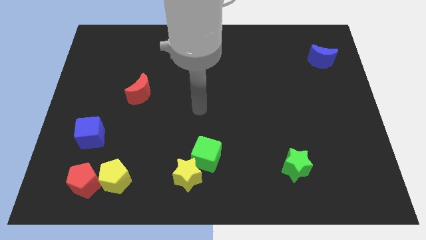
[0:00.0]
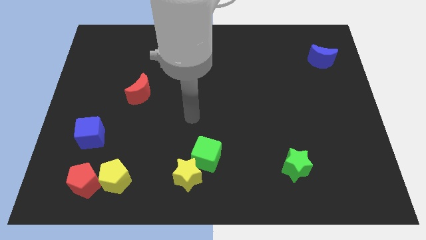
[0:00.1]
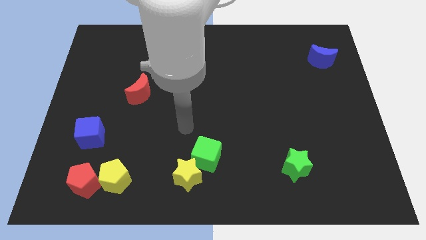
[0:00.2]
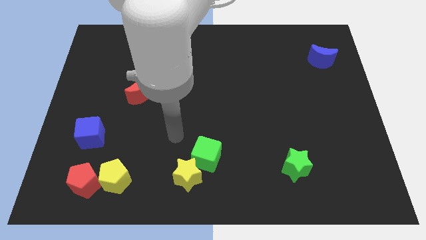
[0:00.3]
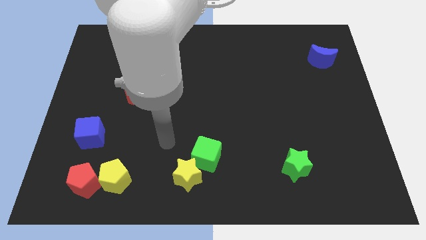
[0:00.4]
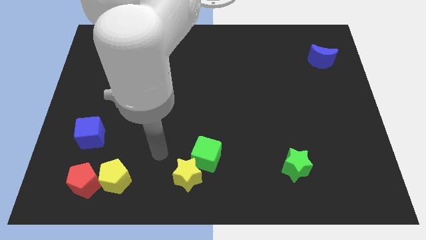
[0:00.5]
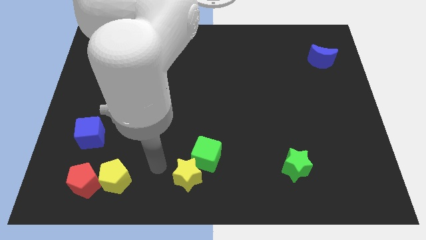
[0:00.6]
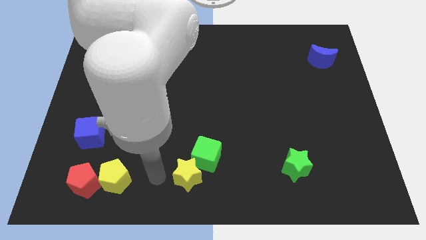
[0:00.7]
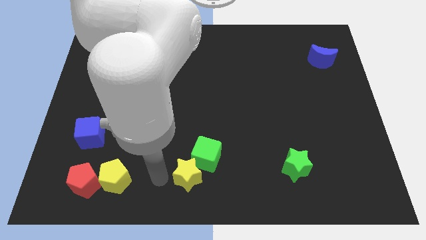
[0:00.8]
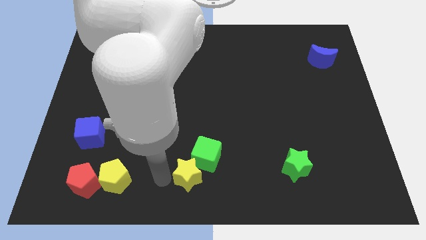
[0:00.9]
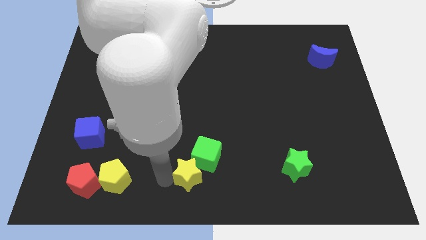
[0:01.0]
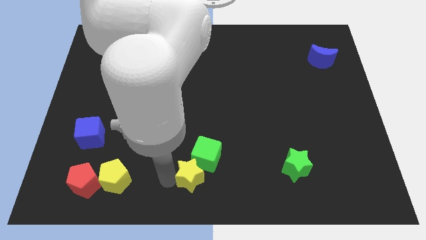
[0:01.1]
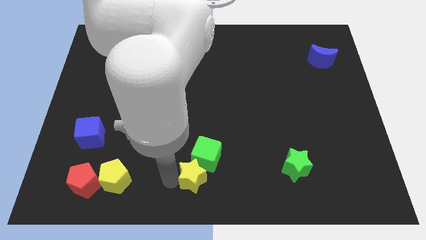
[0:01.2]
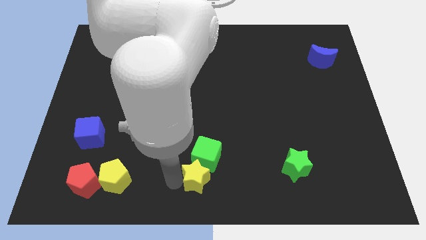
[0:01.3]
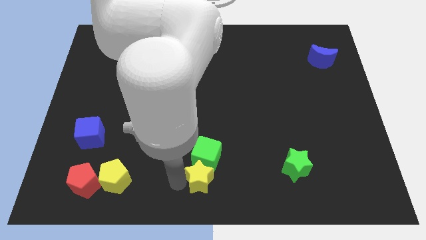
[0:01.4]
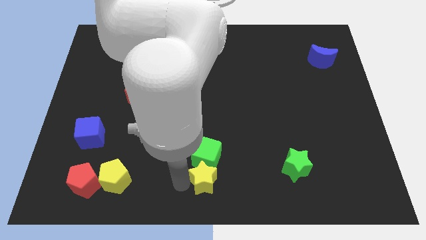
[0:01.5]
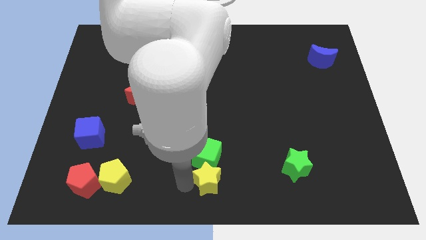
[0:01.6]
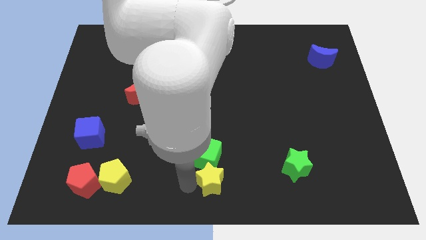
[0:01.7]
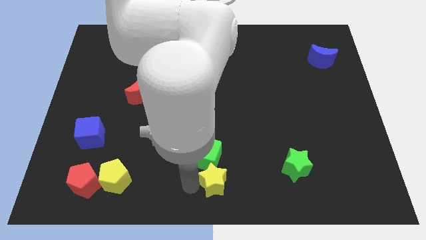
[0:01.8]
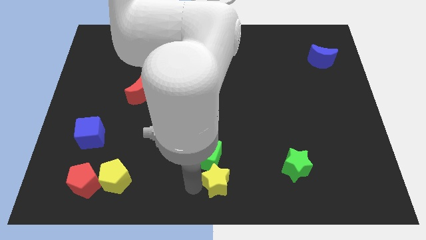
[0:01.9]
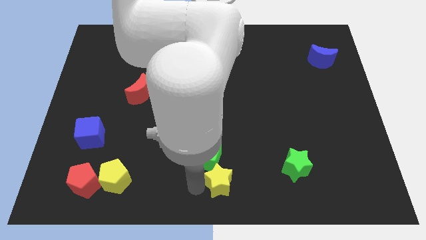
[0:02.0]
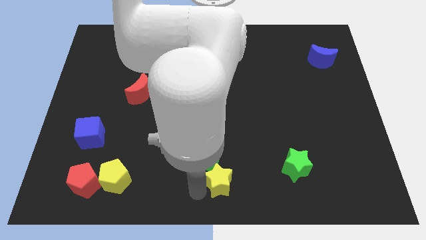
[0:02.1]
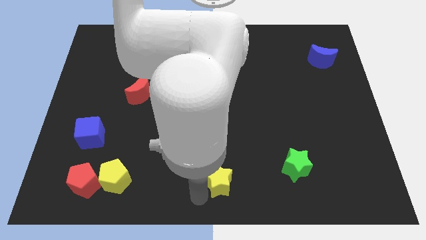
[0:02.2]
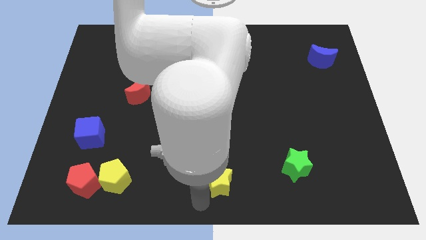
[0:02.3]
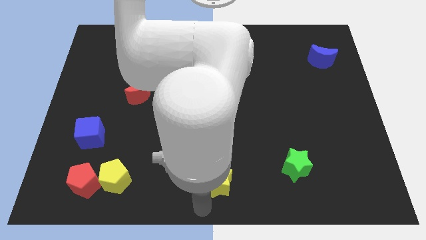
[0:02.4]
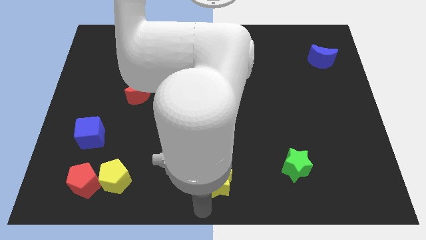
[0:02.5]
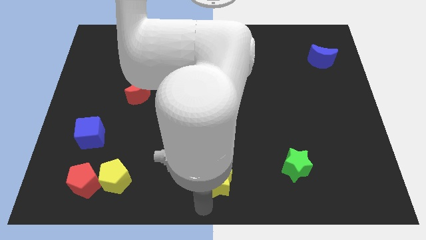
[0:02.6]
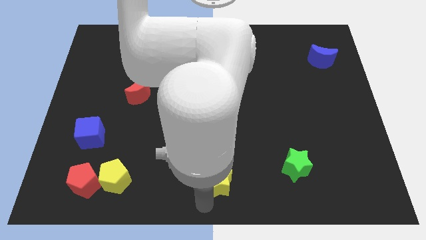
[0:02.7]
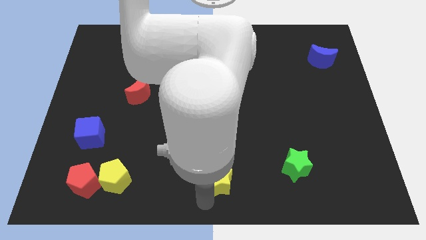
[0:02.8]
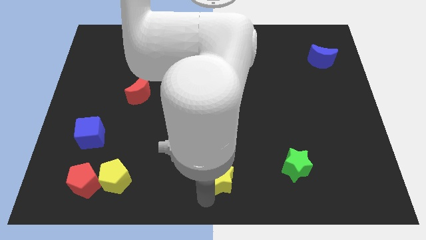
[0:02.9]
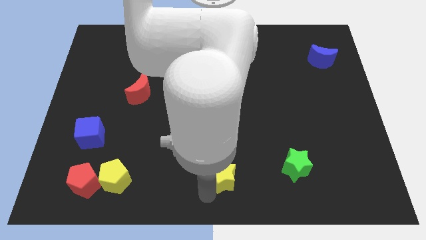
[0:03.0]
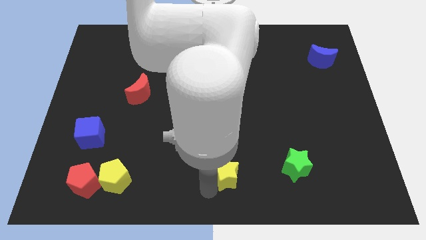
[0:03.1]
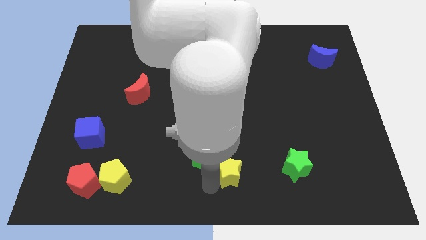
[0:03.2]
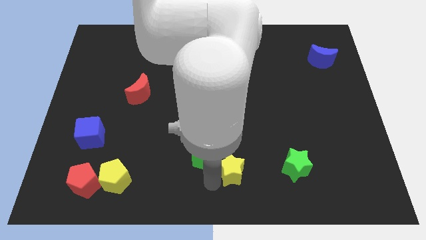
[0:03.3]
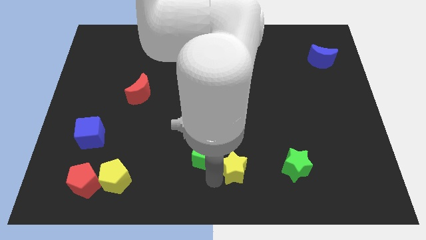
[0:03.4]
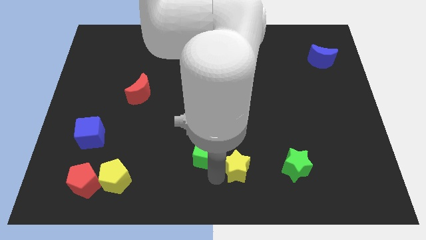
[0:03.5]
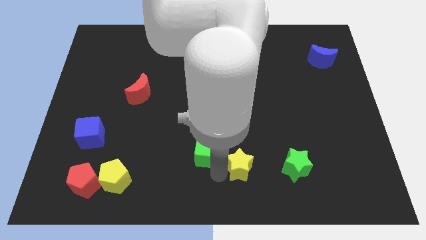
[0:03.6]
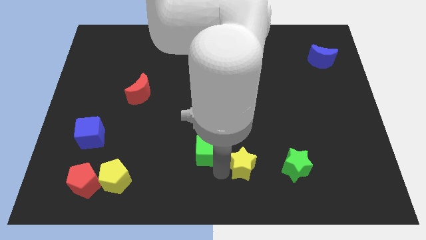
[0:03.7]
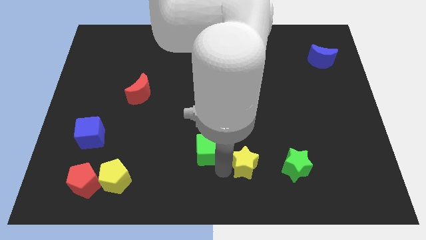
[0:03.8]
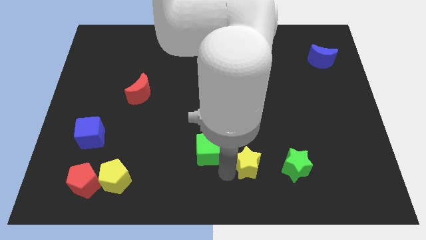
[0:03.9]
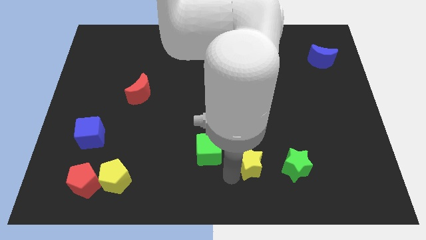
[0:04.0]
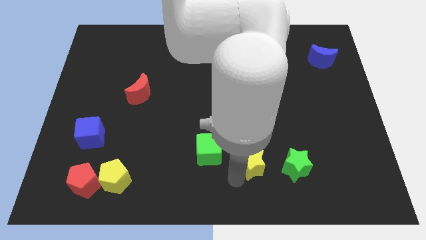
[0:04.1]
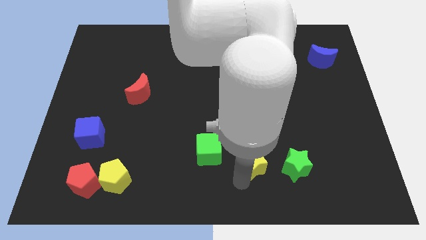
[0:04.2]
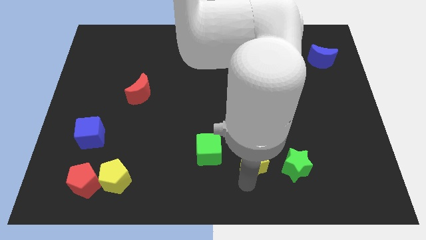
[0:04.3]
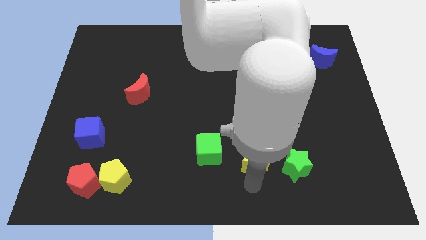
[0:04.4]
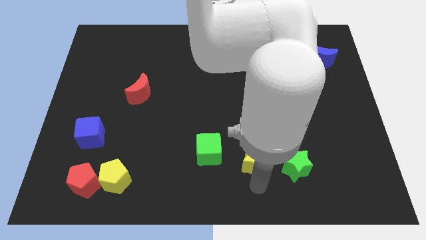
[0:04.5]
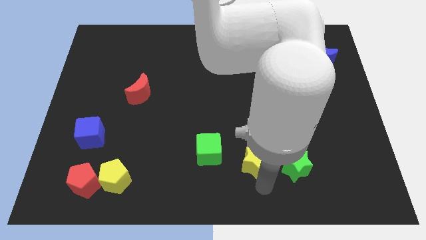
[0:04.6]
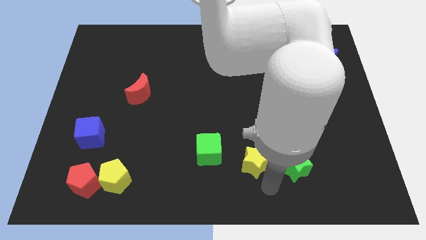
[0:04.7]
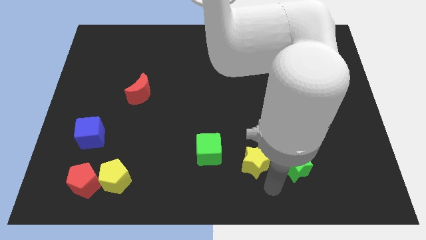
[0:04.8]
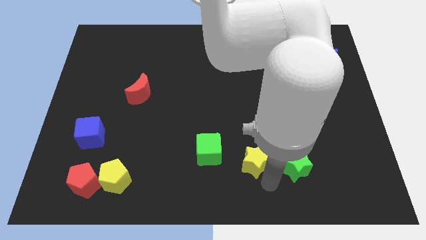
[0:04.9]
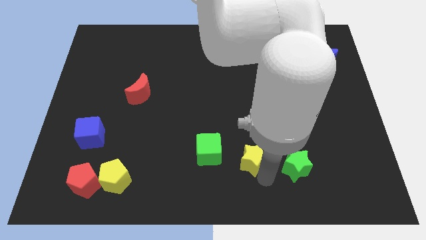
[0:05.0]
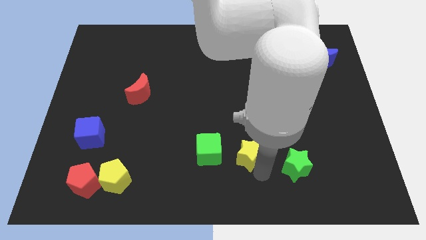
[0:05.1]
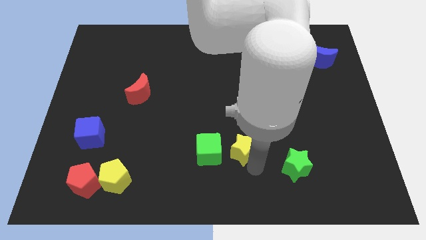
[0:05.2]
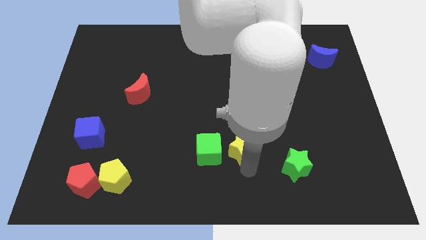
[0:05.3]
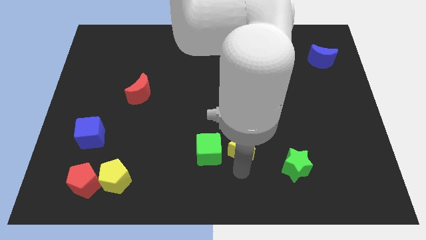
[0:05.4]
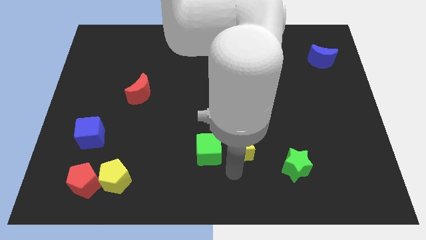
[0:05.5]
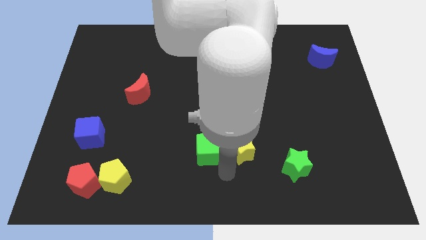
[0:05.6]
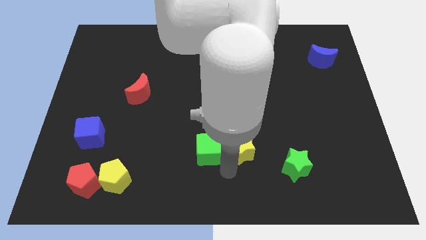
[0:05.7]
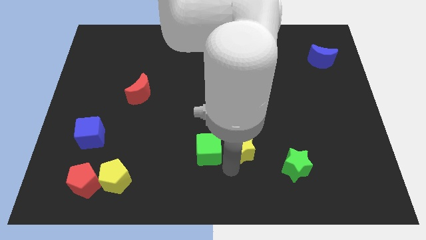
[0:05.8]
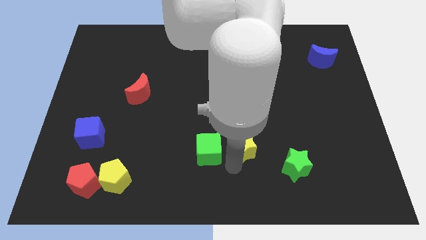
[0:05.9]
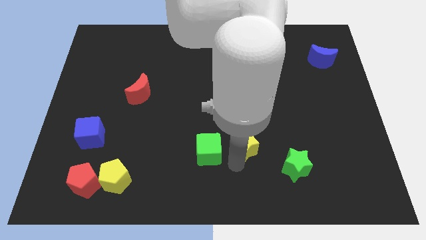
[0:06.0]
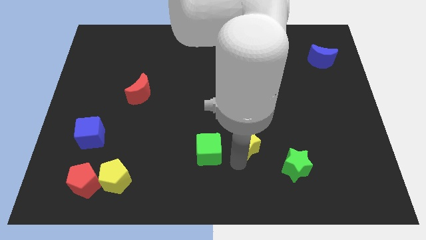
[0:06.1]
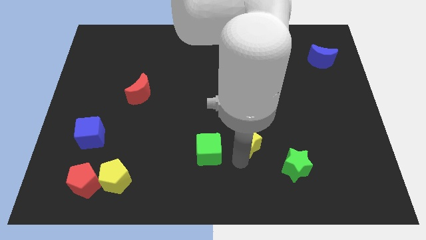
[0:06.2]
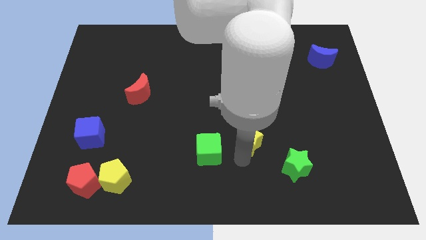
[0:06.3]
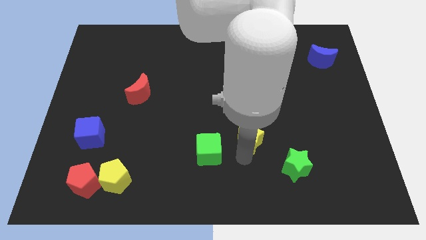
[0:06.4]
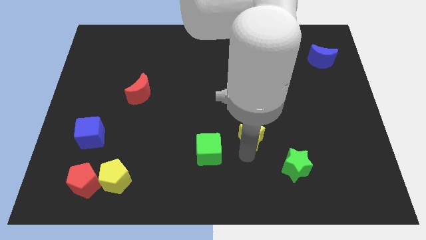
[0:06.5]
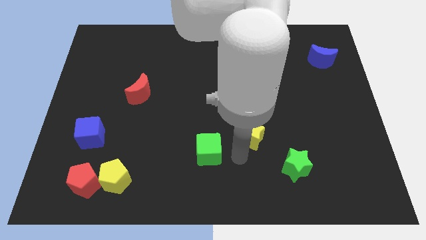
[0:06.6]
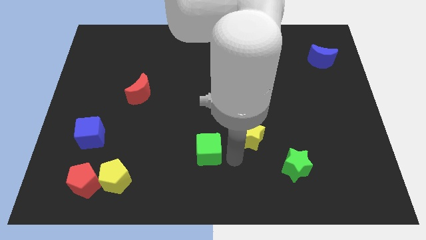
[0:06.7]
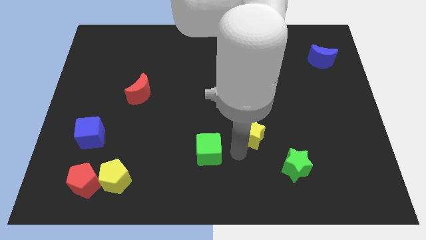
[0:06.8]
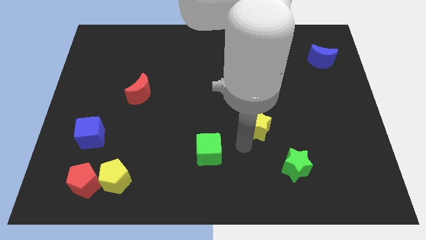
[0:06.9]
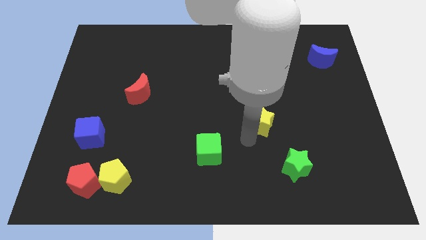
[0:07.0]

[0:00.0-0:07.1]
slide the yellow star up and then to the right

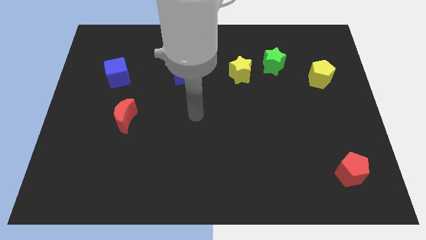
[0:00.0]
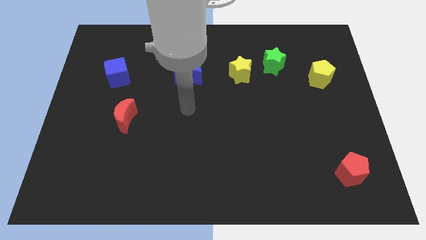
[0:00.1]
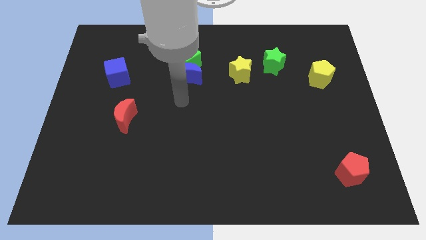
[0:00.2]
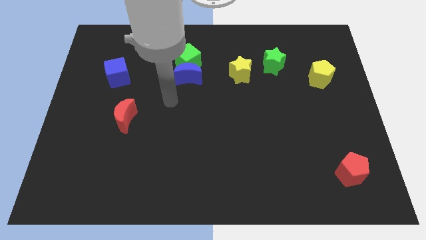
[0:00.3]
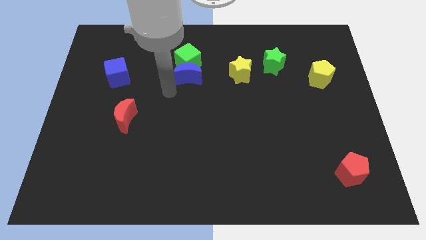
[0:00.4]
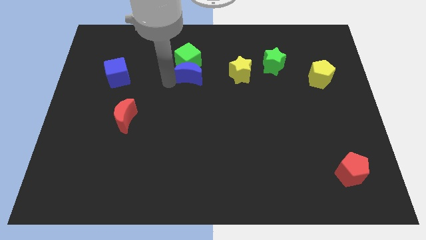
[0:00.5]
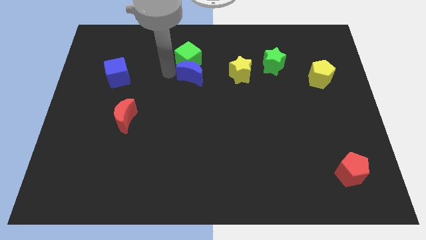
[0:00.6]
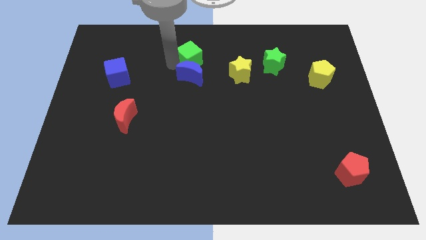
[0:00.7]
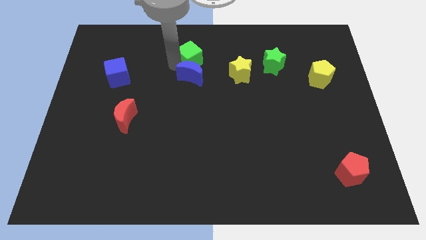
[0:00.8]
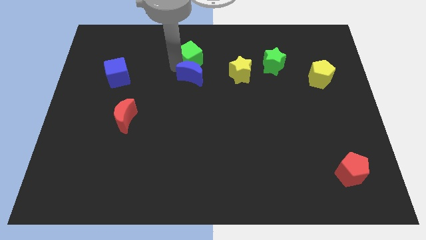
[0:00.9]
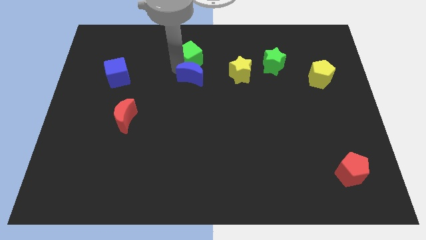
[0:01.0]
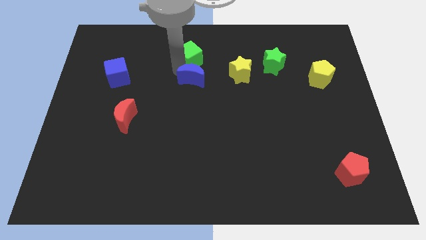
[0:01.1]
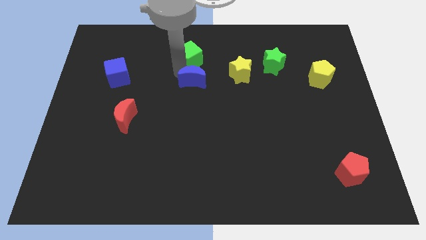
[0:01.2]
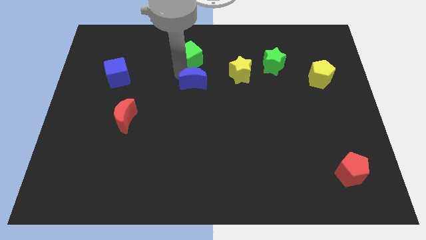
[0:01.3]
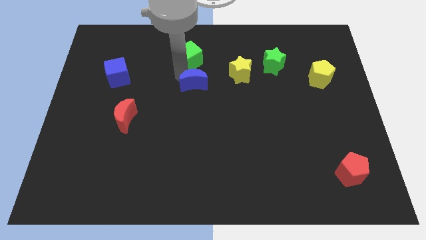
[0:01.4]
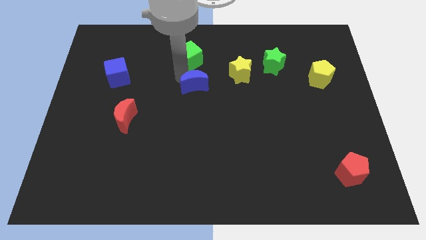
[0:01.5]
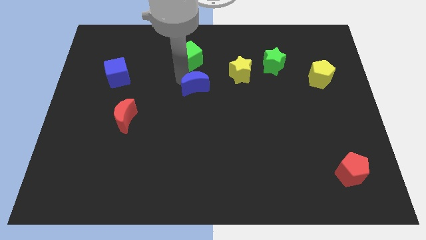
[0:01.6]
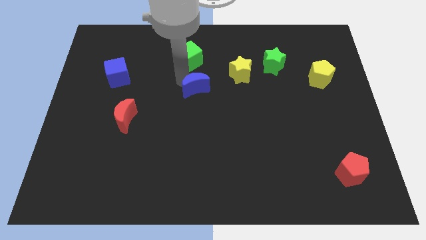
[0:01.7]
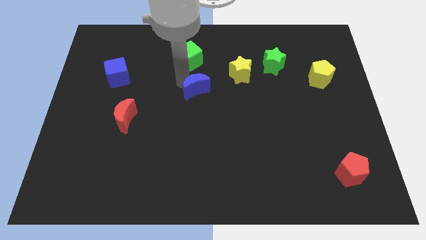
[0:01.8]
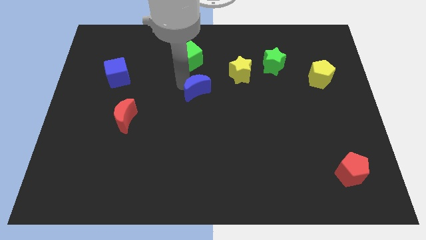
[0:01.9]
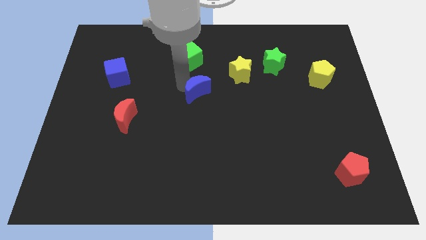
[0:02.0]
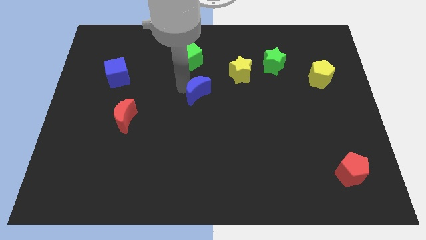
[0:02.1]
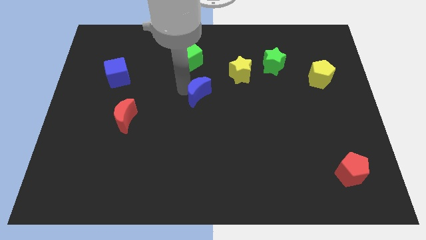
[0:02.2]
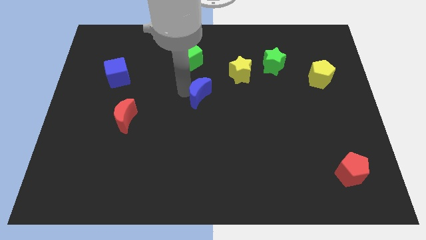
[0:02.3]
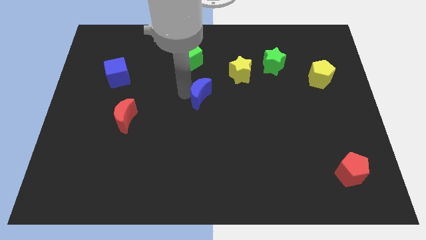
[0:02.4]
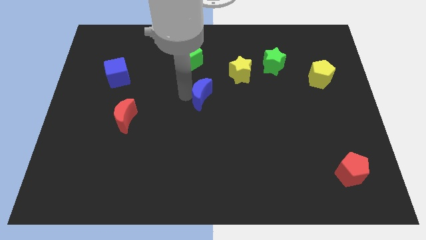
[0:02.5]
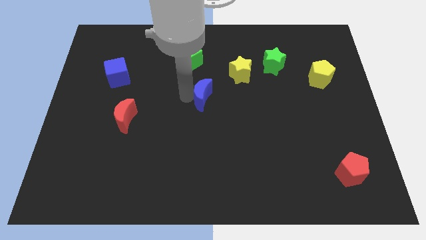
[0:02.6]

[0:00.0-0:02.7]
slightly push the blue moon diagonally downwards and right
